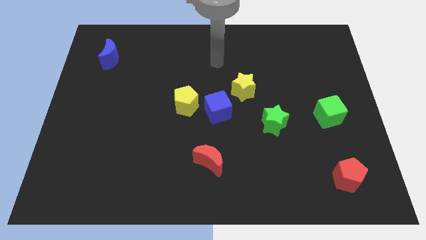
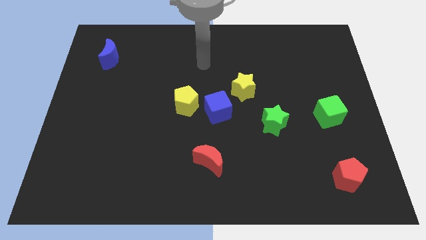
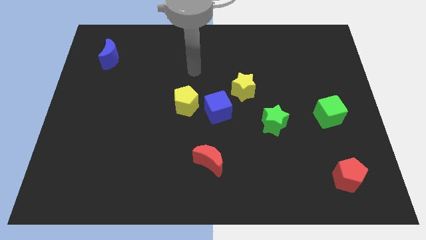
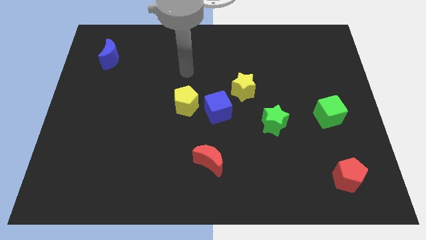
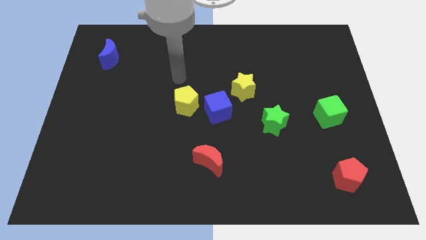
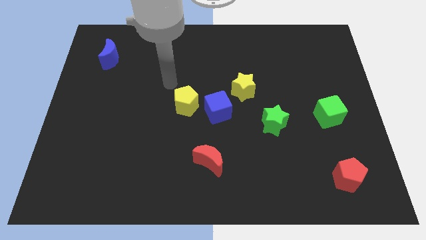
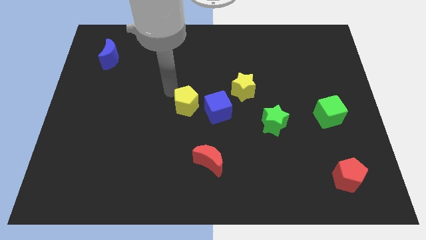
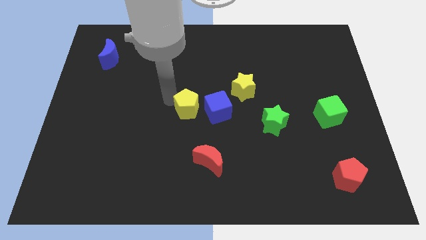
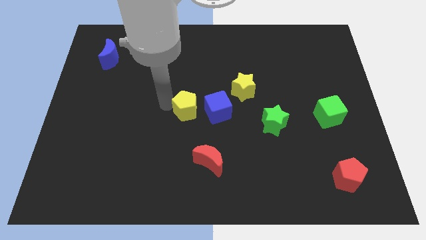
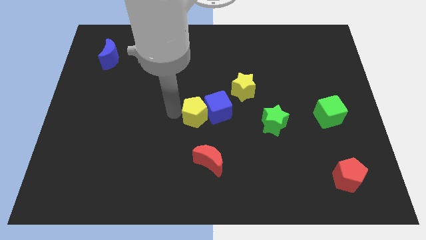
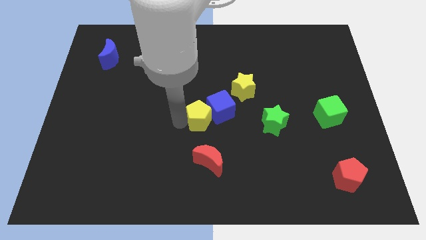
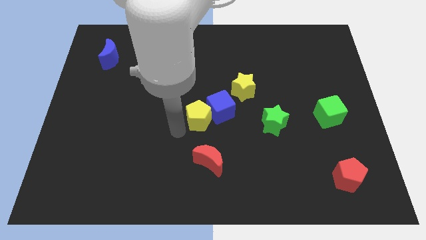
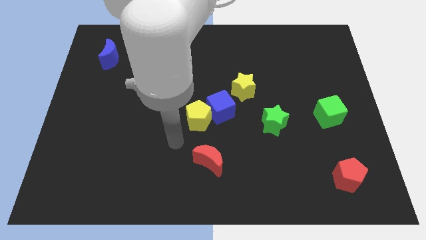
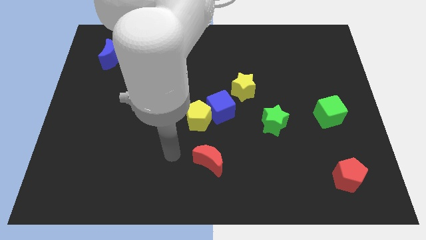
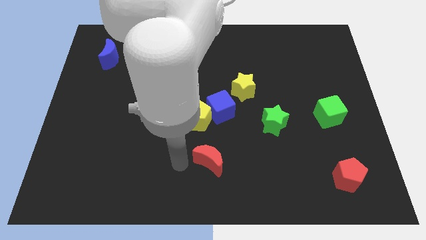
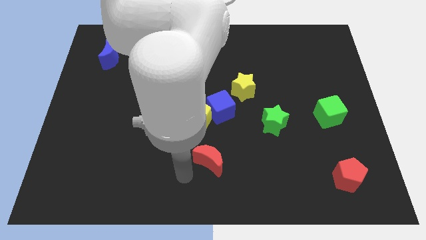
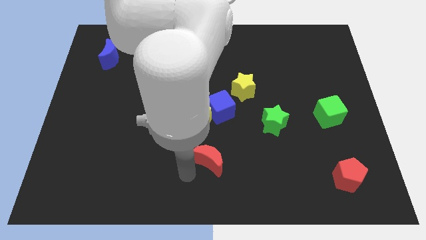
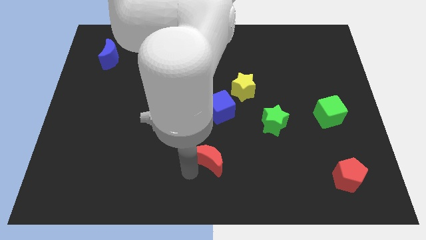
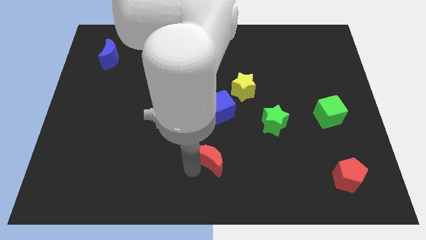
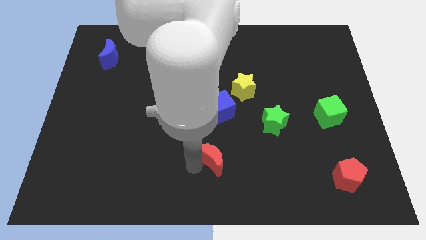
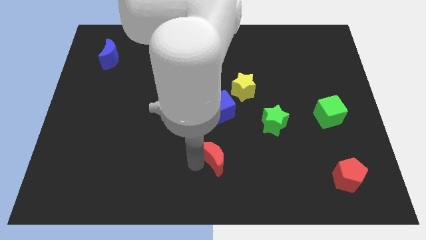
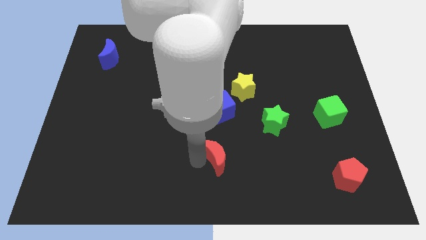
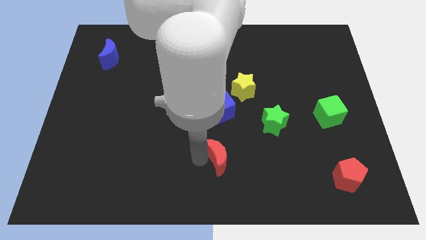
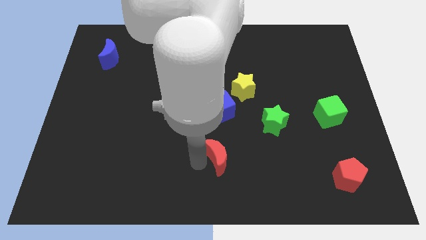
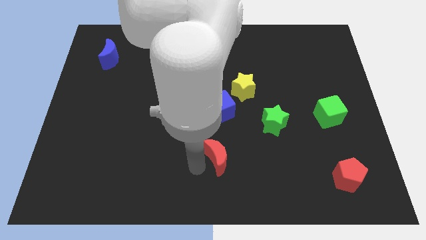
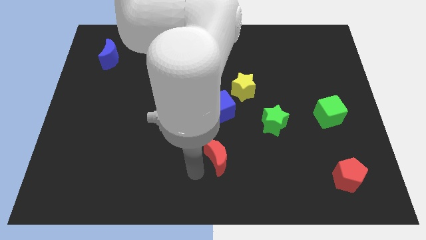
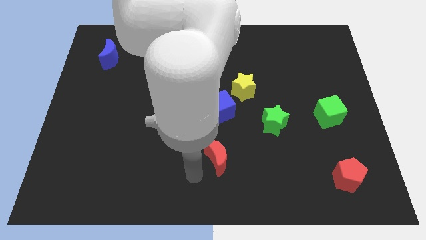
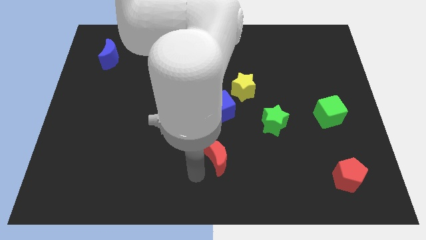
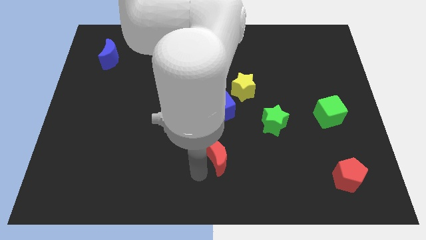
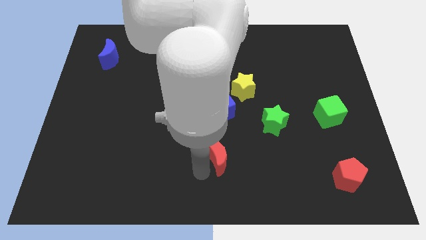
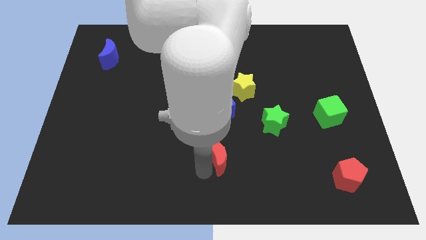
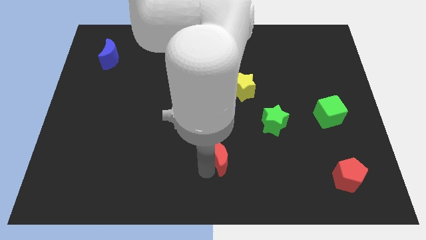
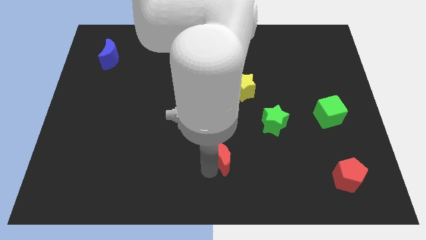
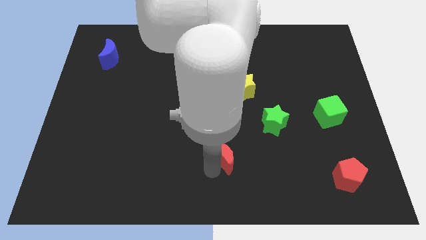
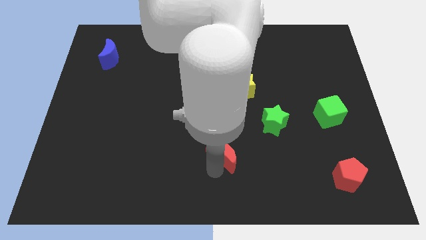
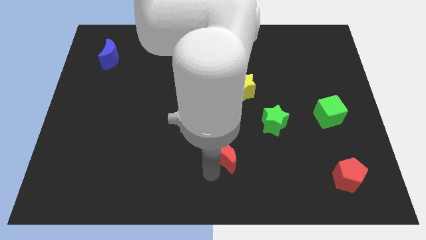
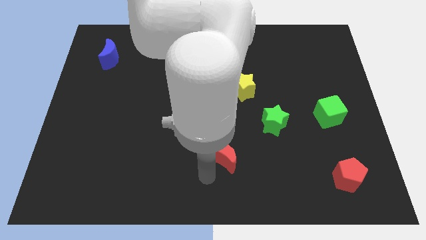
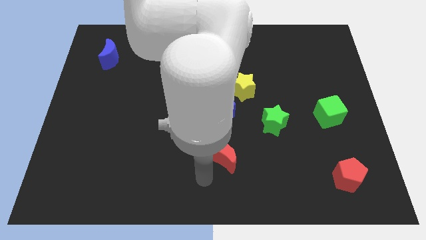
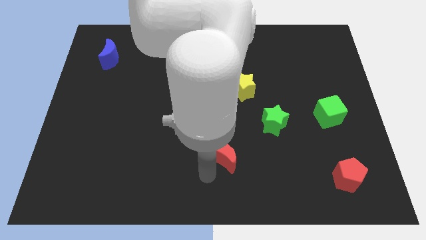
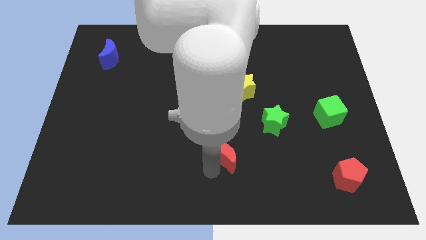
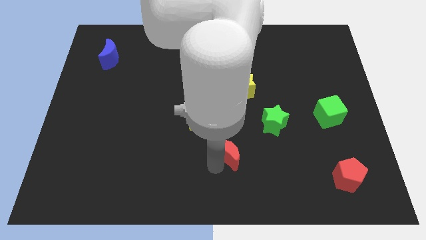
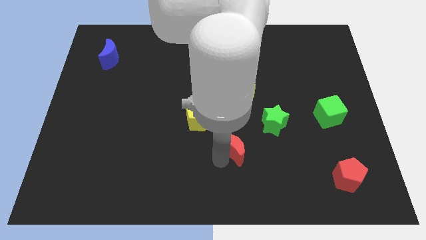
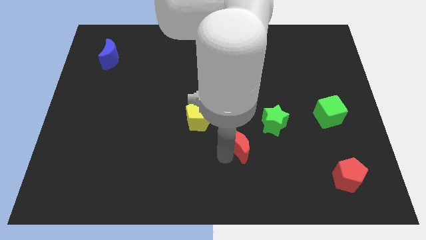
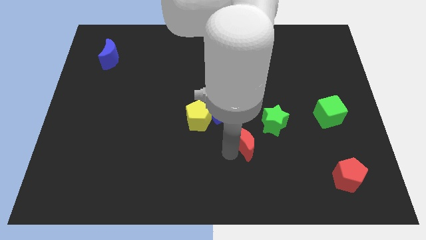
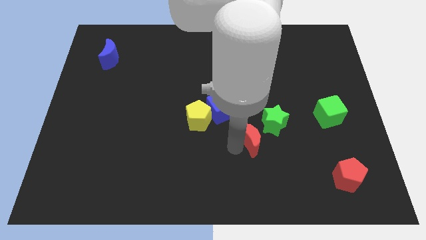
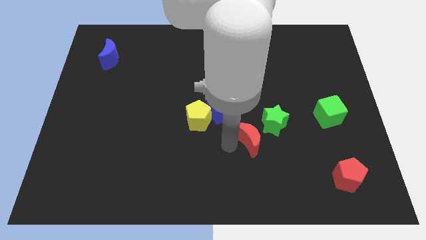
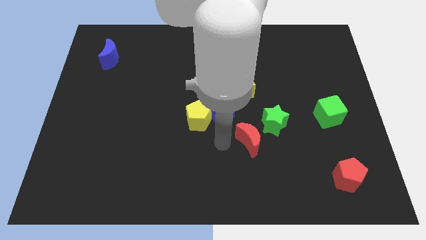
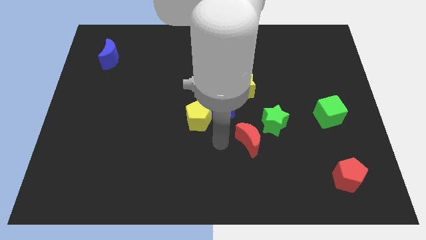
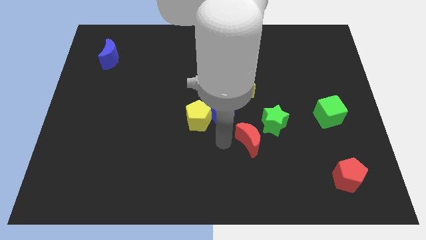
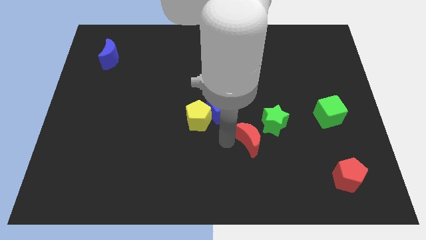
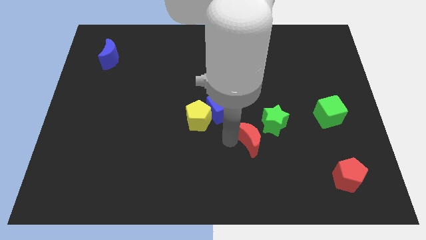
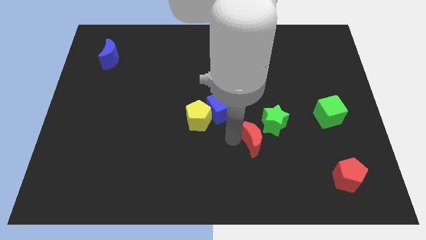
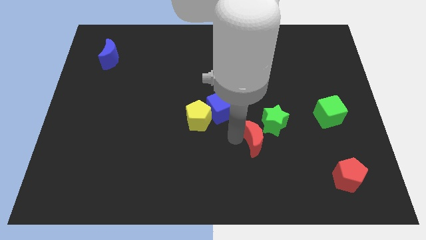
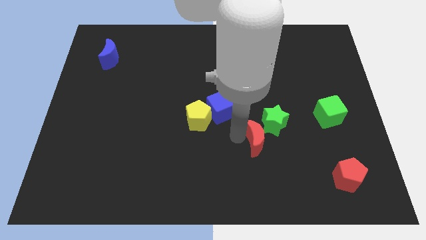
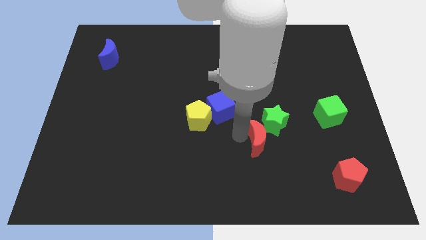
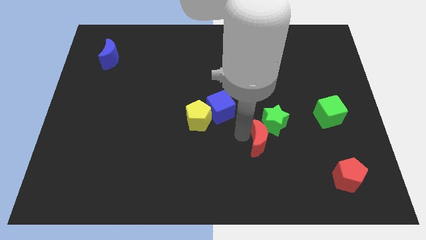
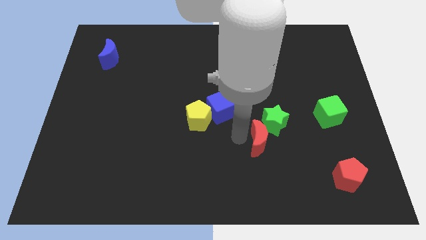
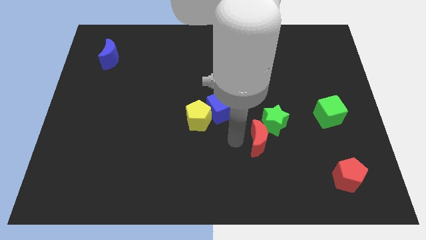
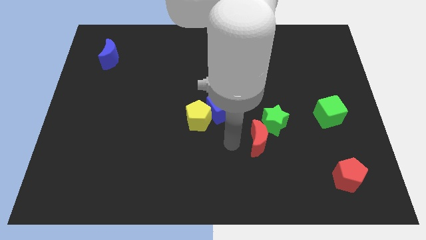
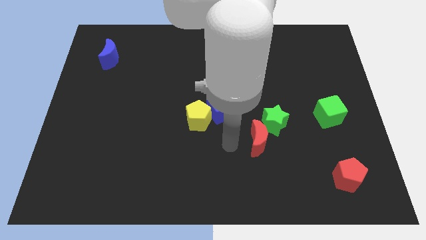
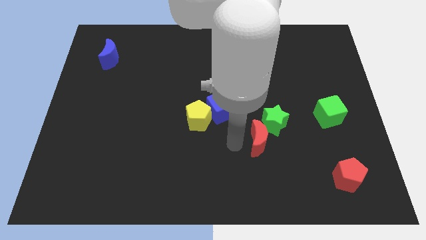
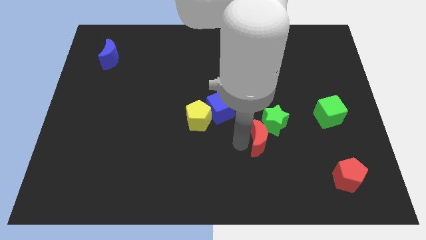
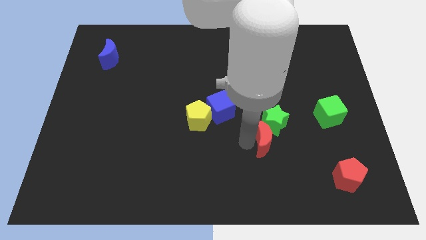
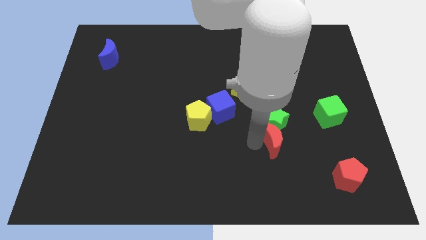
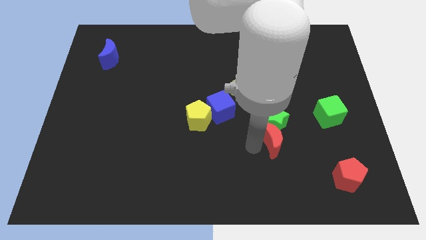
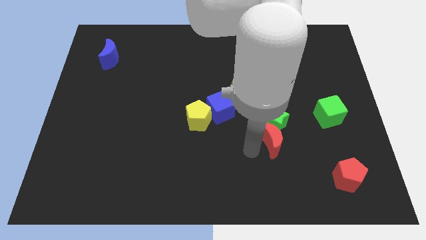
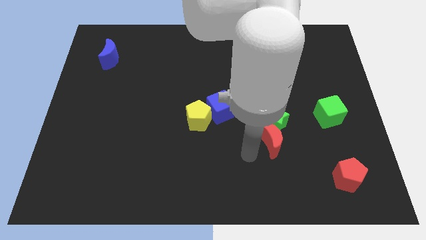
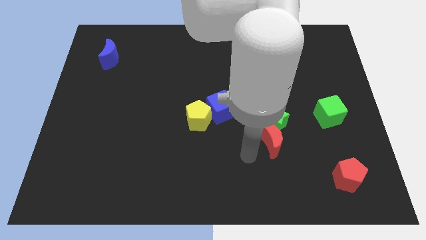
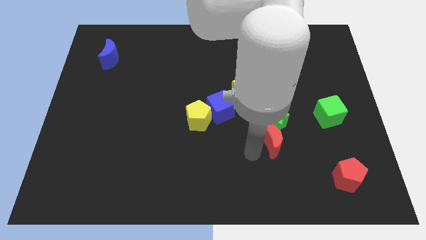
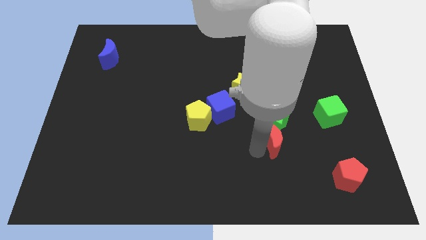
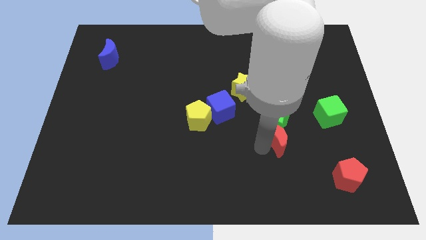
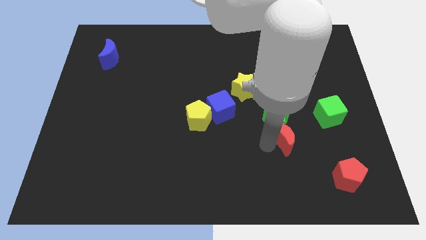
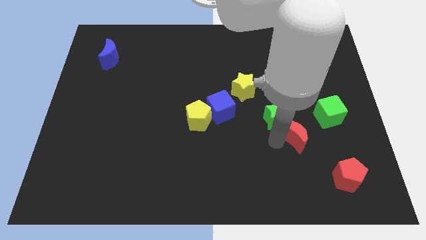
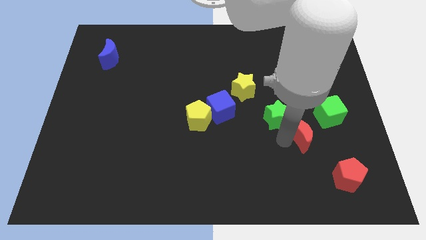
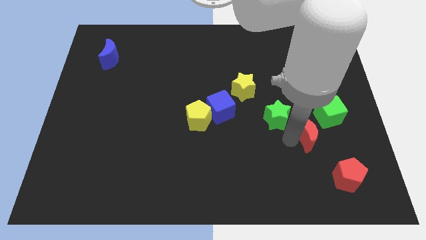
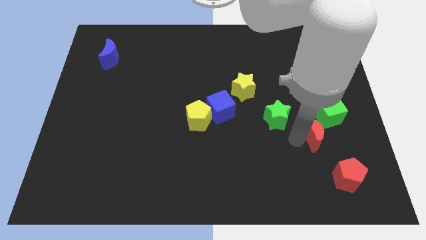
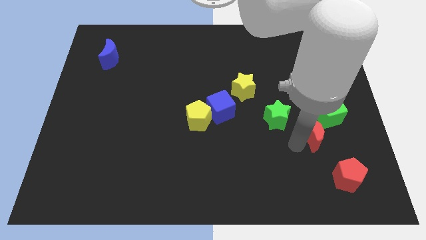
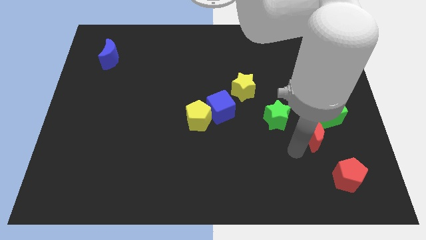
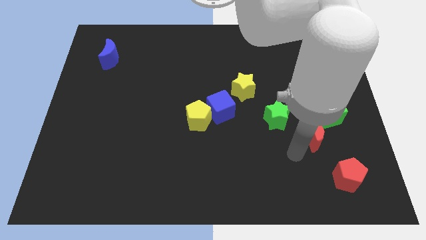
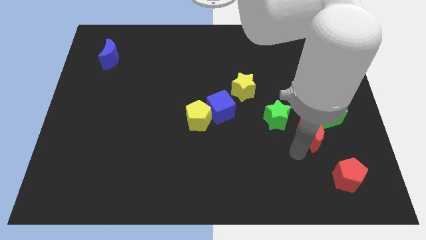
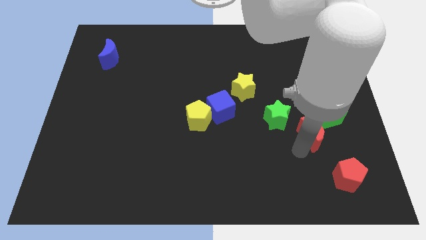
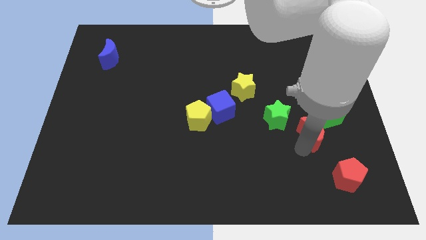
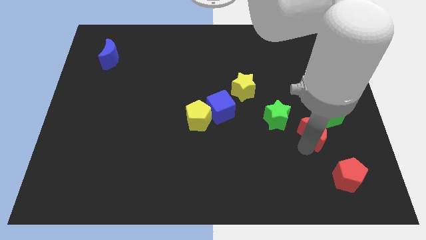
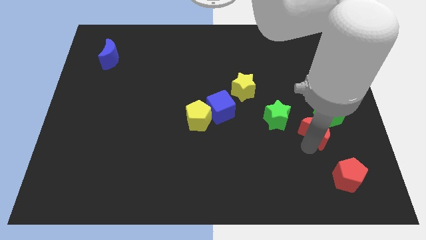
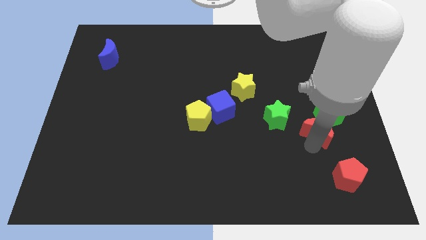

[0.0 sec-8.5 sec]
push the red moon close to the green cube
